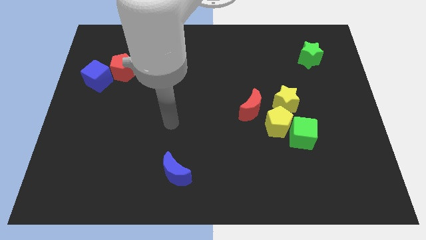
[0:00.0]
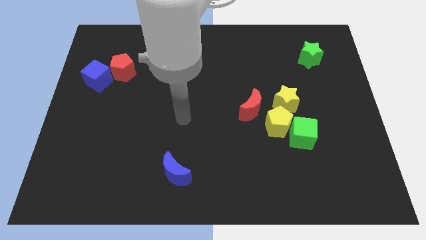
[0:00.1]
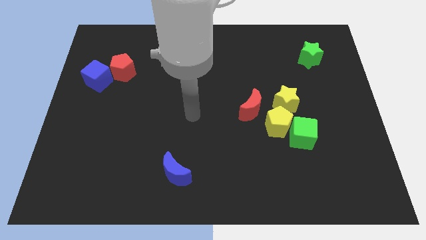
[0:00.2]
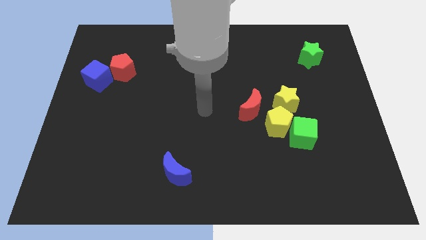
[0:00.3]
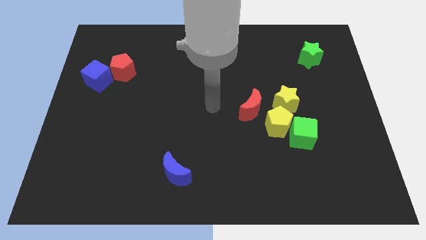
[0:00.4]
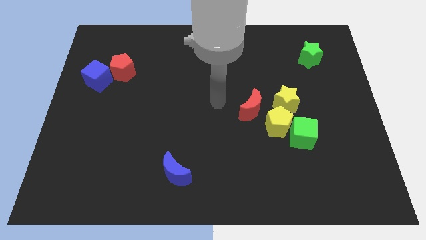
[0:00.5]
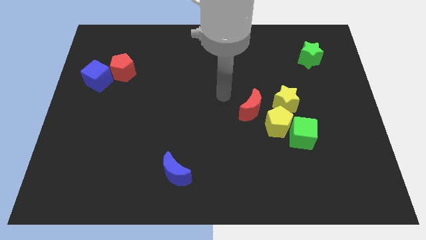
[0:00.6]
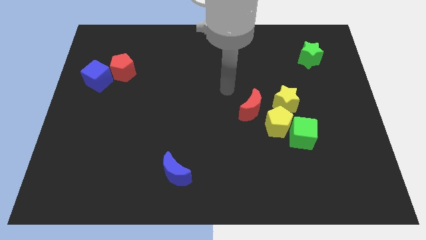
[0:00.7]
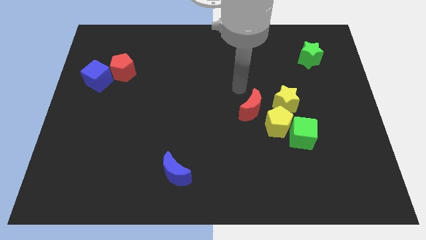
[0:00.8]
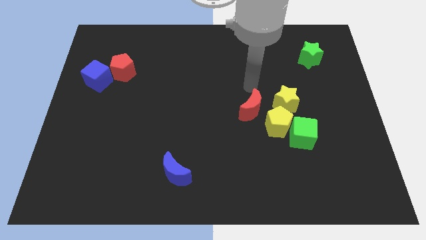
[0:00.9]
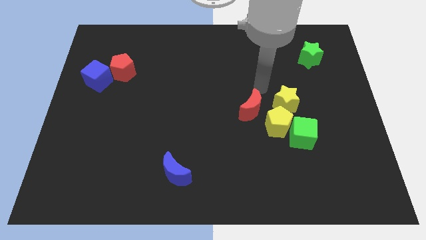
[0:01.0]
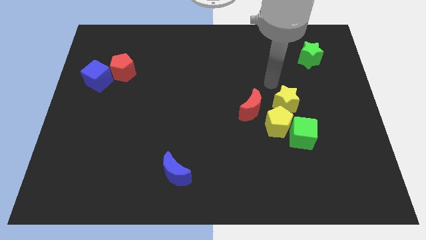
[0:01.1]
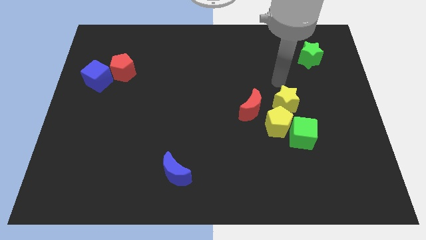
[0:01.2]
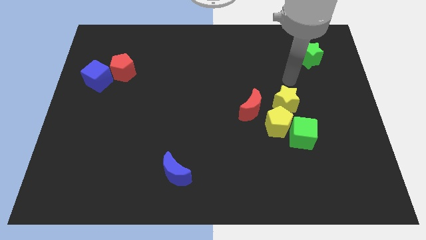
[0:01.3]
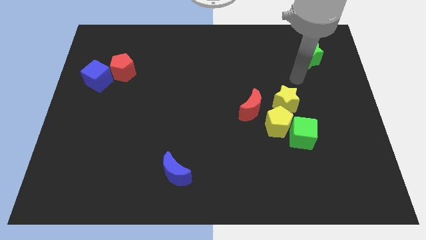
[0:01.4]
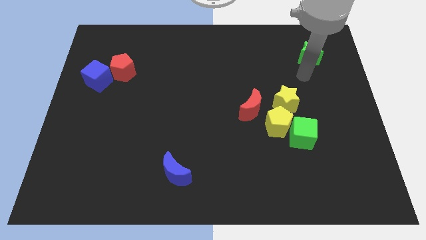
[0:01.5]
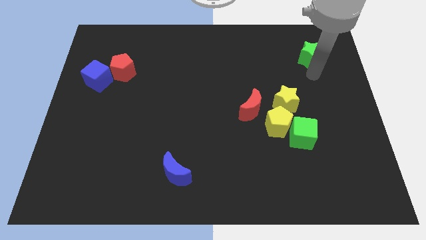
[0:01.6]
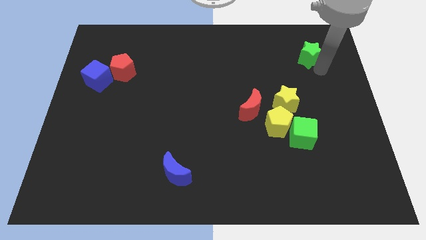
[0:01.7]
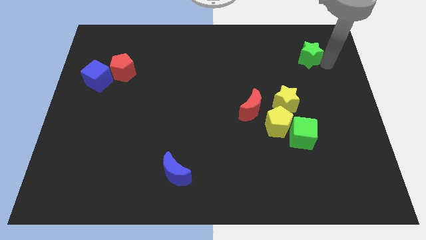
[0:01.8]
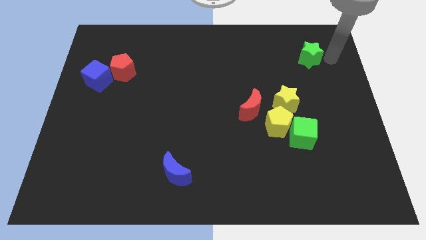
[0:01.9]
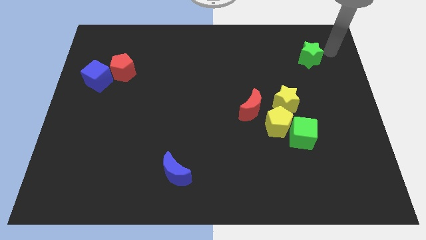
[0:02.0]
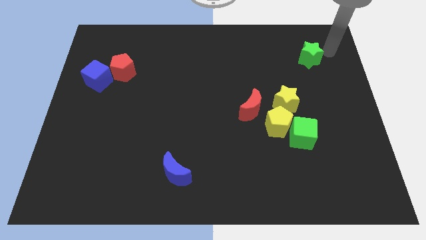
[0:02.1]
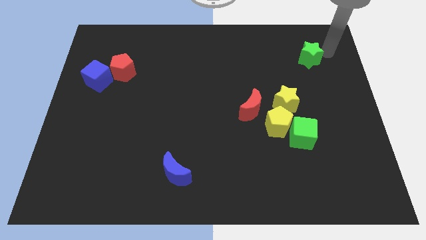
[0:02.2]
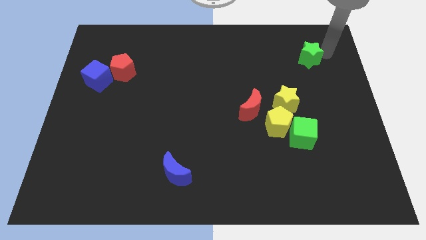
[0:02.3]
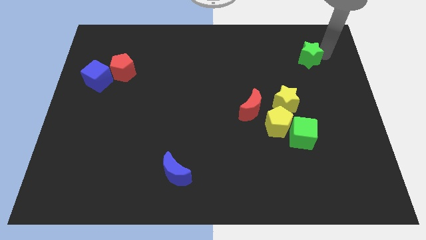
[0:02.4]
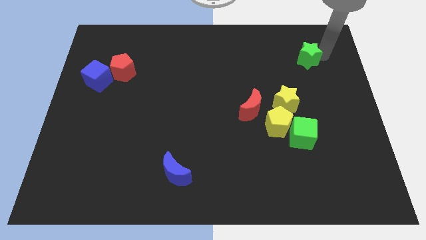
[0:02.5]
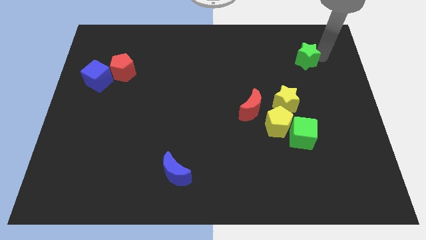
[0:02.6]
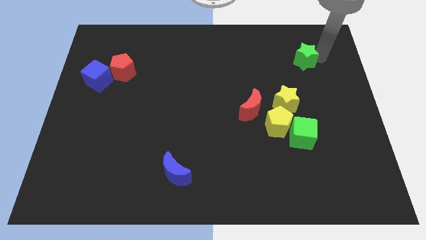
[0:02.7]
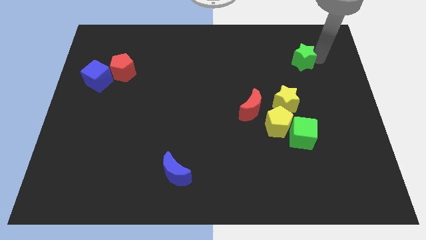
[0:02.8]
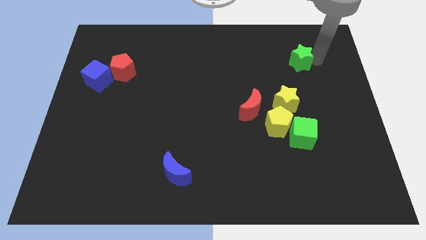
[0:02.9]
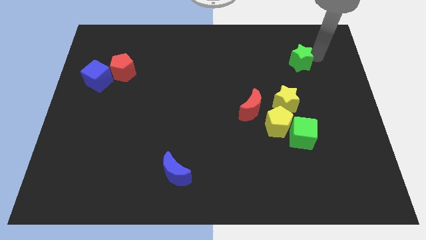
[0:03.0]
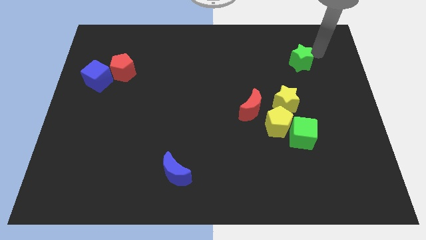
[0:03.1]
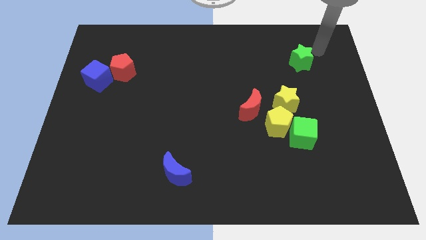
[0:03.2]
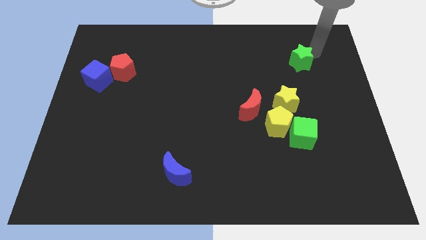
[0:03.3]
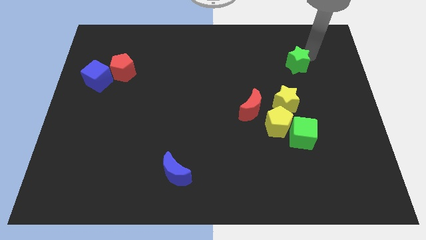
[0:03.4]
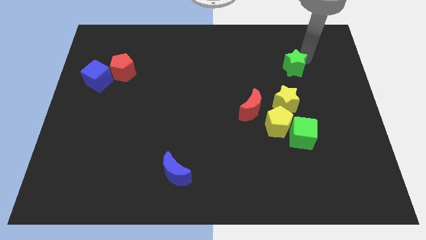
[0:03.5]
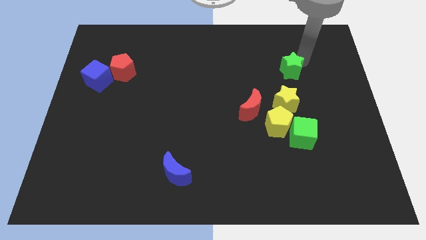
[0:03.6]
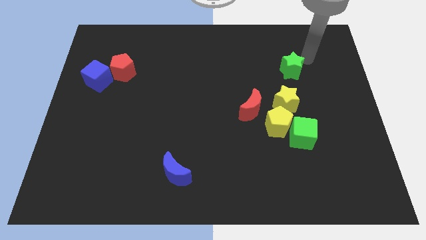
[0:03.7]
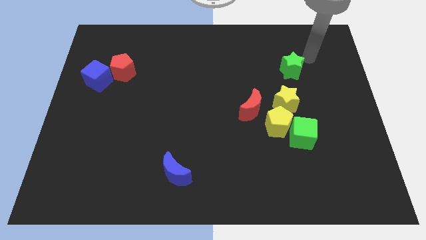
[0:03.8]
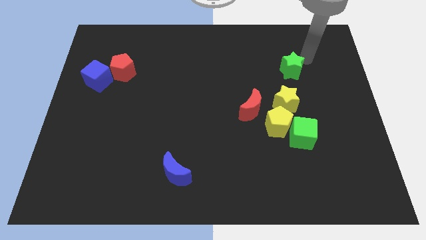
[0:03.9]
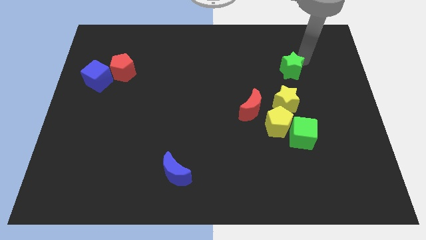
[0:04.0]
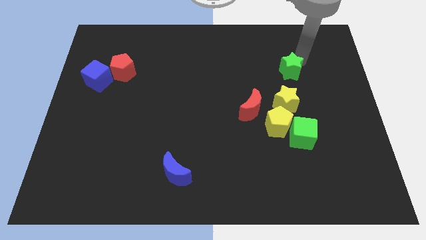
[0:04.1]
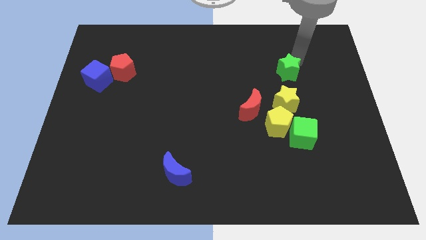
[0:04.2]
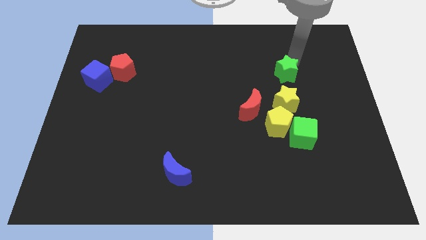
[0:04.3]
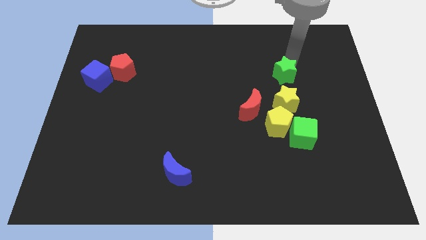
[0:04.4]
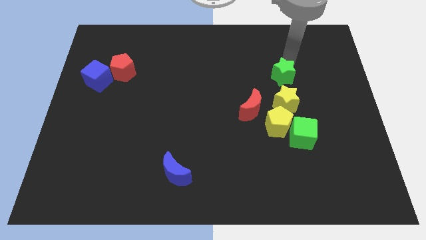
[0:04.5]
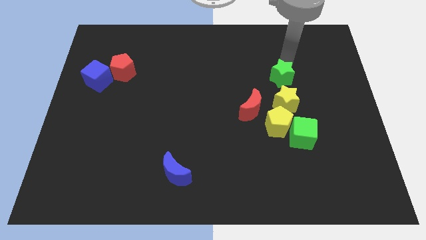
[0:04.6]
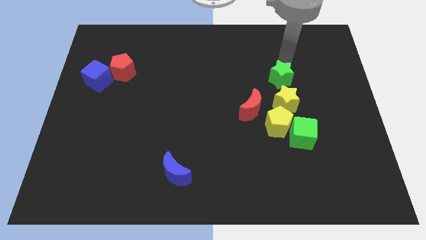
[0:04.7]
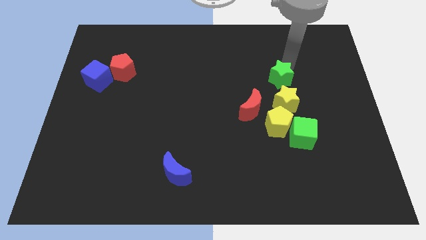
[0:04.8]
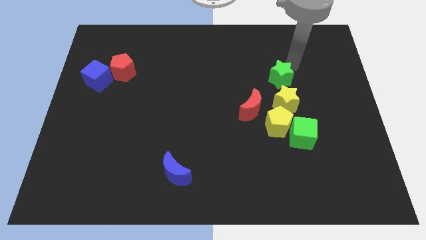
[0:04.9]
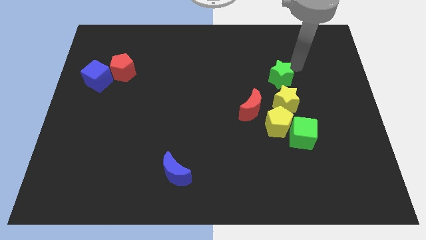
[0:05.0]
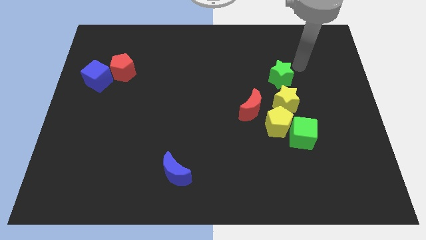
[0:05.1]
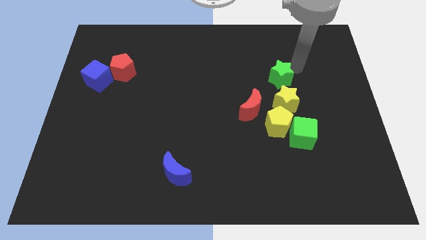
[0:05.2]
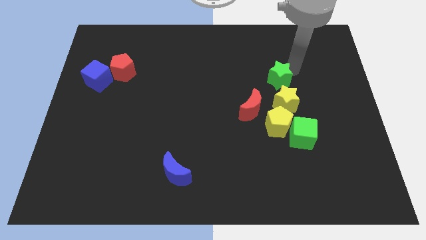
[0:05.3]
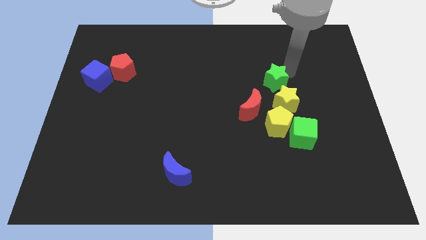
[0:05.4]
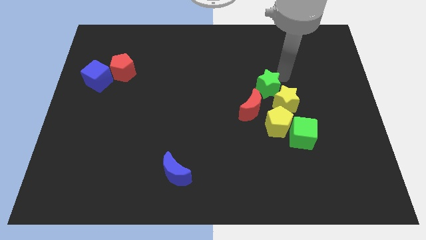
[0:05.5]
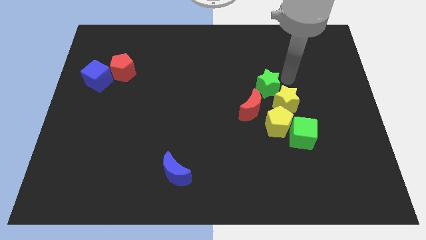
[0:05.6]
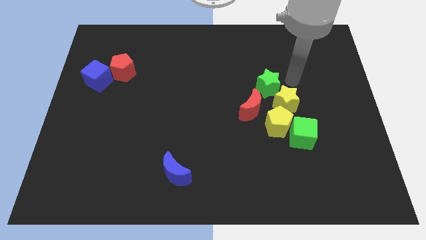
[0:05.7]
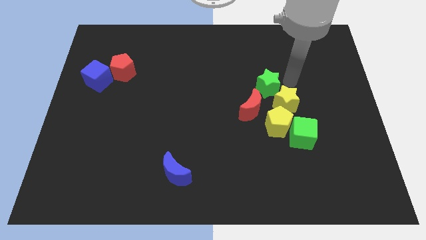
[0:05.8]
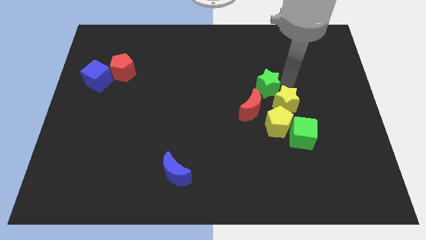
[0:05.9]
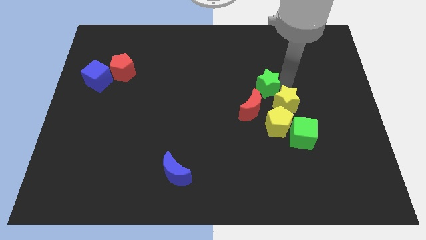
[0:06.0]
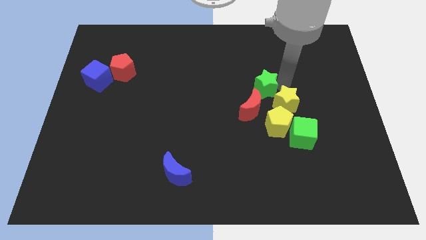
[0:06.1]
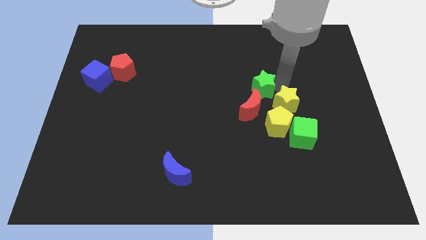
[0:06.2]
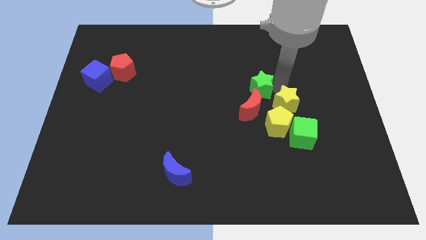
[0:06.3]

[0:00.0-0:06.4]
slide the green star to the center of the board

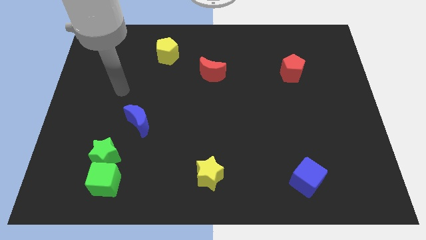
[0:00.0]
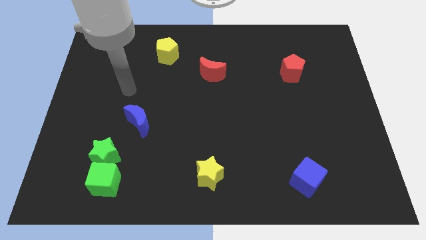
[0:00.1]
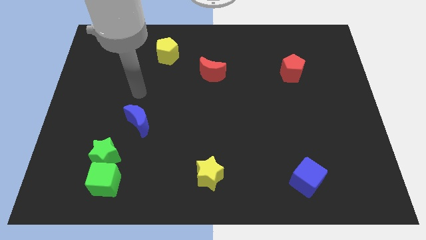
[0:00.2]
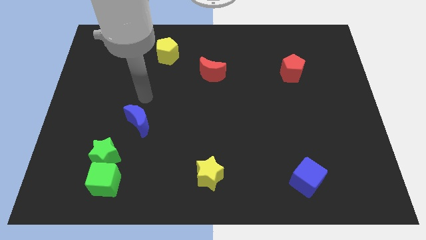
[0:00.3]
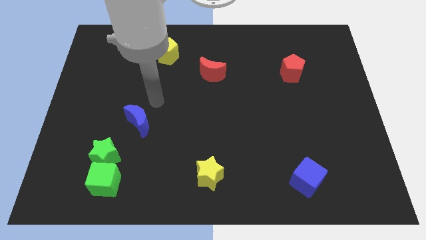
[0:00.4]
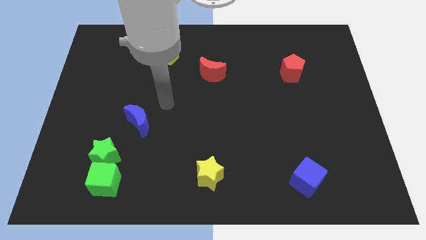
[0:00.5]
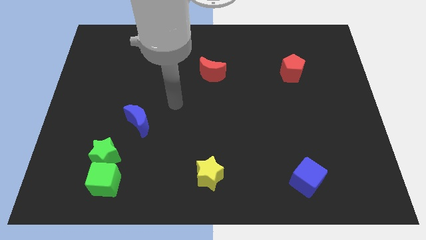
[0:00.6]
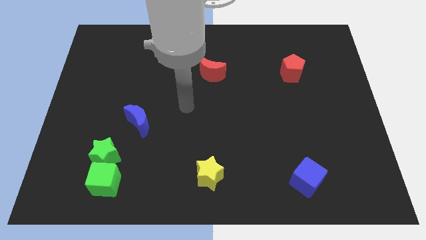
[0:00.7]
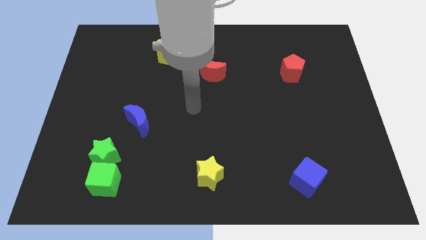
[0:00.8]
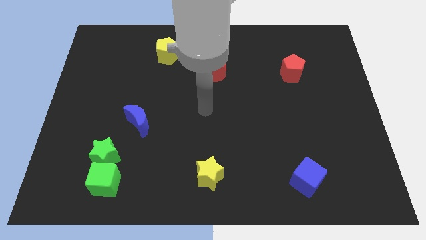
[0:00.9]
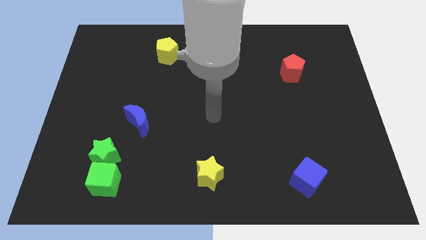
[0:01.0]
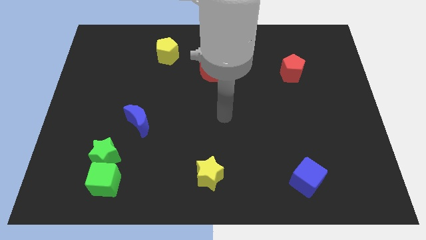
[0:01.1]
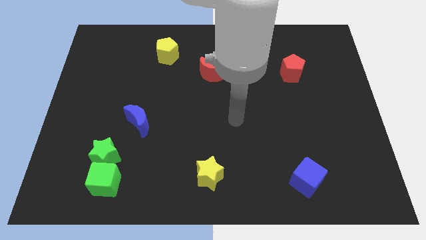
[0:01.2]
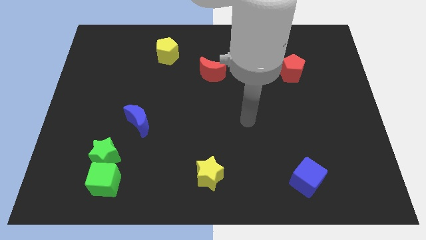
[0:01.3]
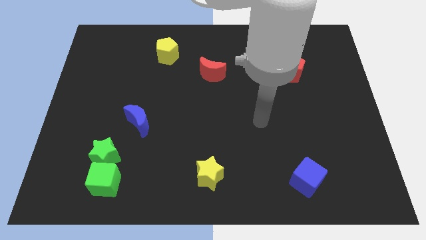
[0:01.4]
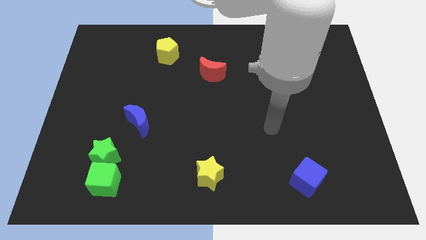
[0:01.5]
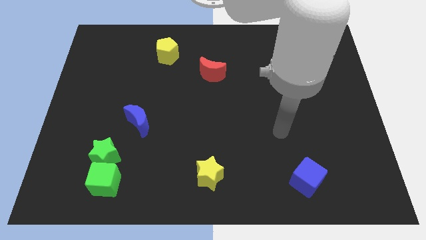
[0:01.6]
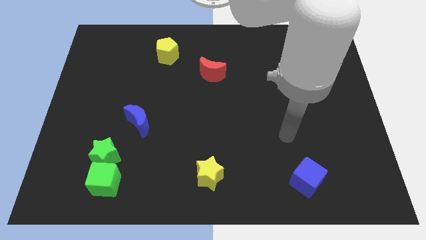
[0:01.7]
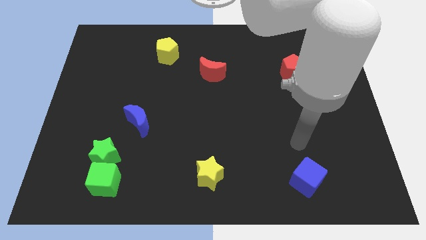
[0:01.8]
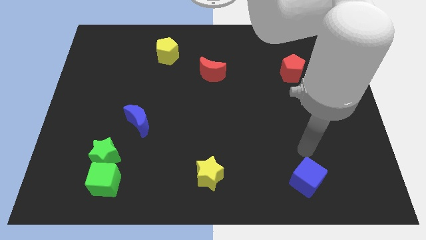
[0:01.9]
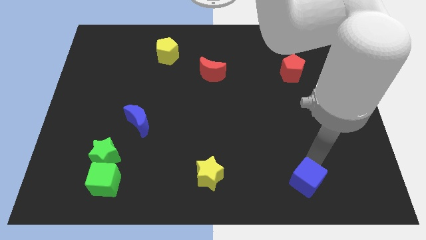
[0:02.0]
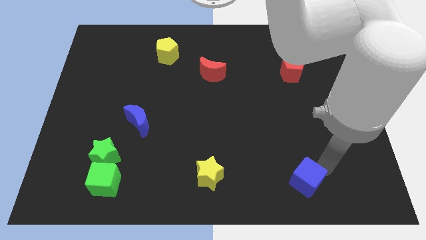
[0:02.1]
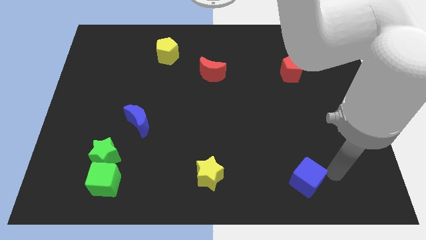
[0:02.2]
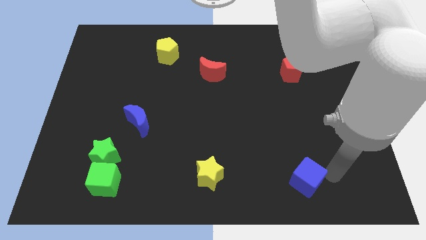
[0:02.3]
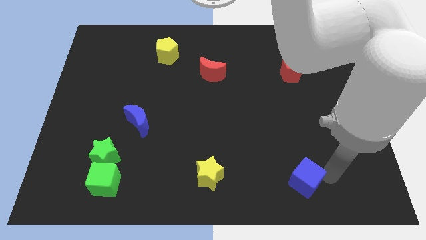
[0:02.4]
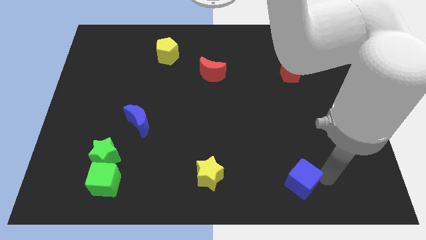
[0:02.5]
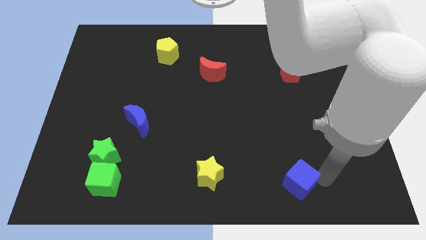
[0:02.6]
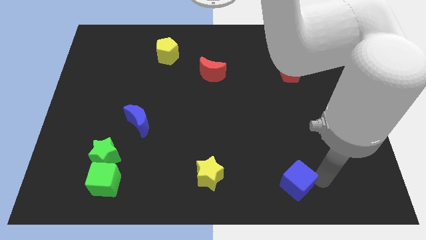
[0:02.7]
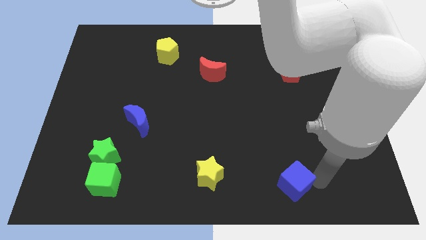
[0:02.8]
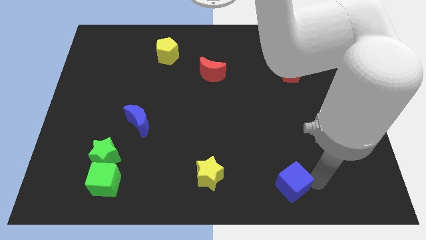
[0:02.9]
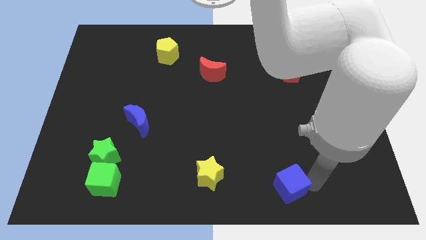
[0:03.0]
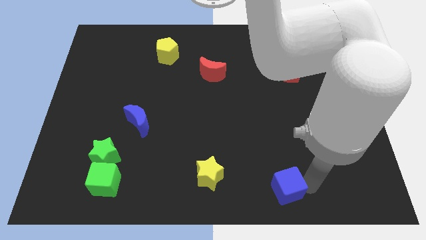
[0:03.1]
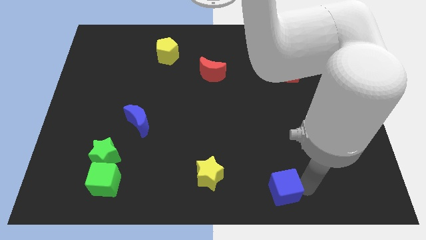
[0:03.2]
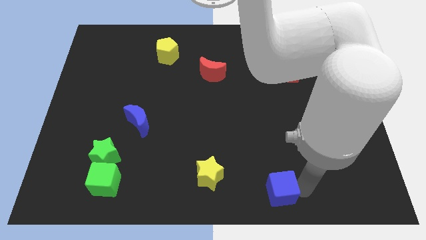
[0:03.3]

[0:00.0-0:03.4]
push the blue cube to the bottom
